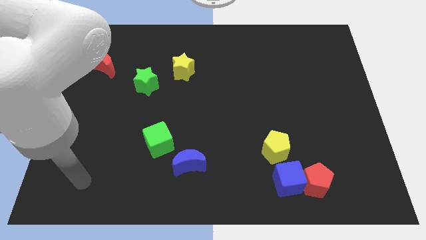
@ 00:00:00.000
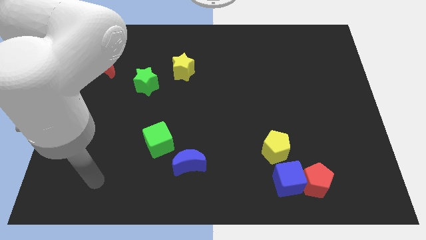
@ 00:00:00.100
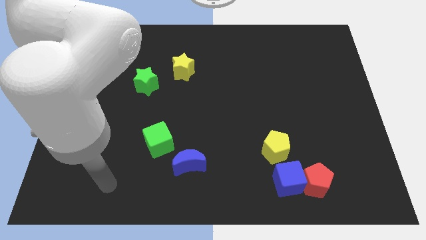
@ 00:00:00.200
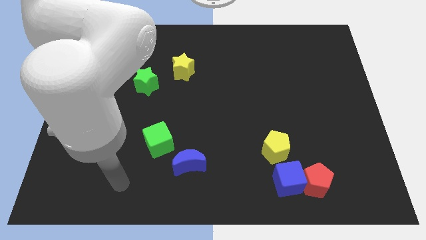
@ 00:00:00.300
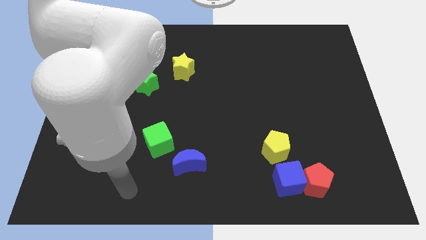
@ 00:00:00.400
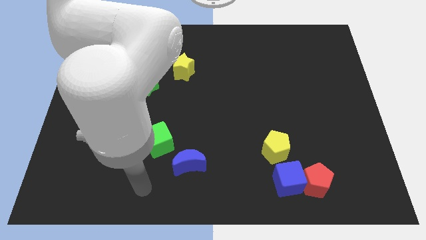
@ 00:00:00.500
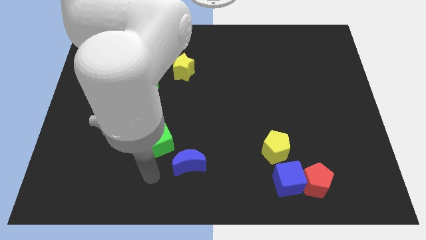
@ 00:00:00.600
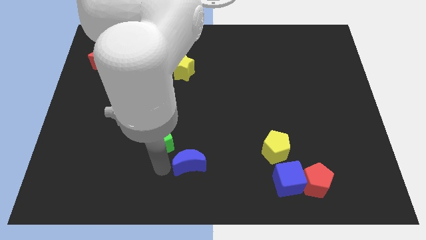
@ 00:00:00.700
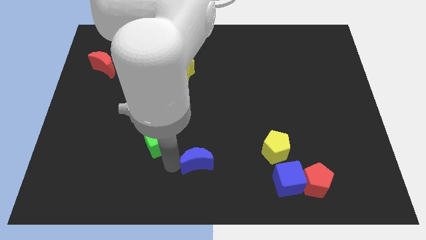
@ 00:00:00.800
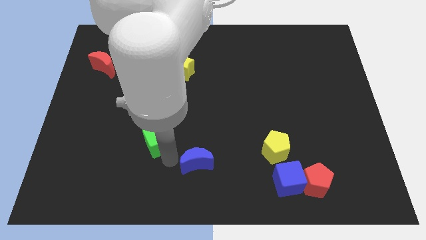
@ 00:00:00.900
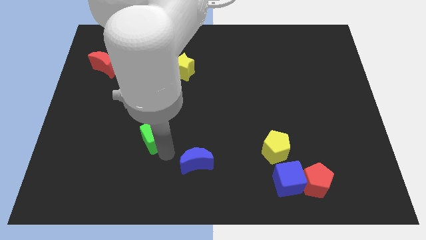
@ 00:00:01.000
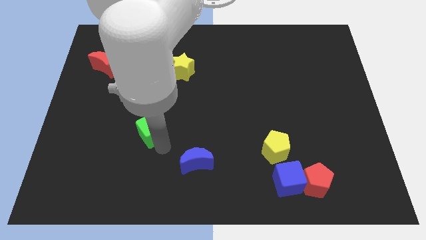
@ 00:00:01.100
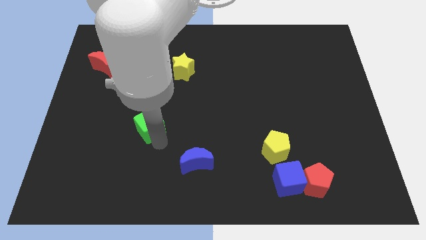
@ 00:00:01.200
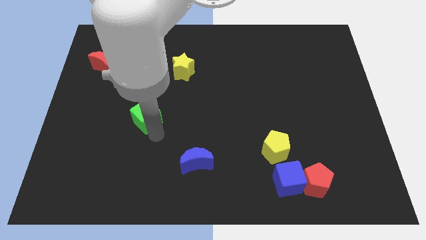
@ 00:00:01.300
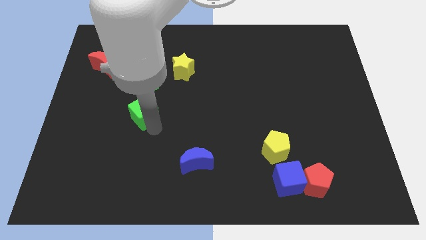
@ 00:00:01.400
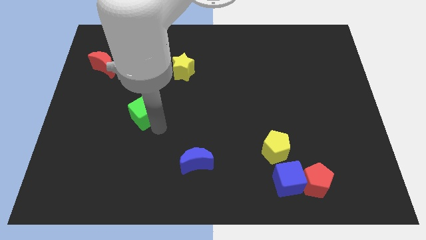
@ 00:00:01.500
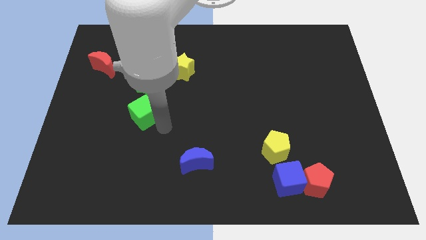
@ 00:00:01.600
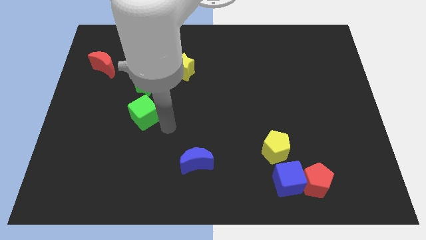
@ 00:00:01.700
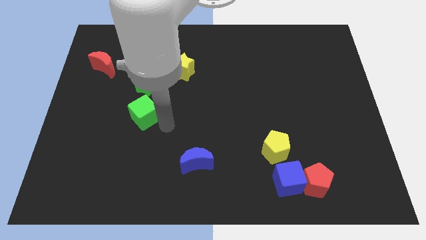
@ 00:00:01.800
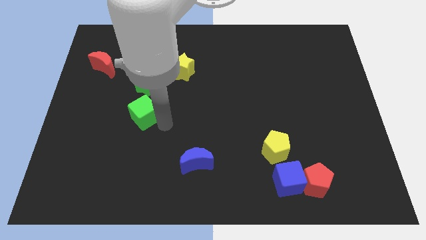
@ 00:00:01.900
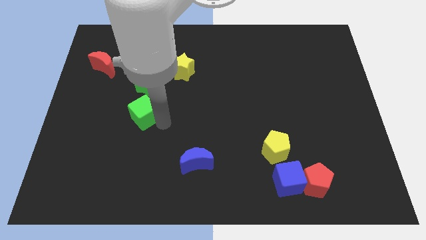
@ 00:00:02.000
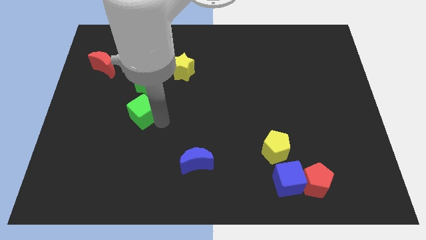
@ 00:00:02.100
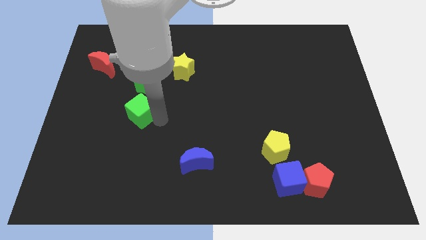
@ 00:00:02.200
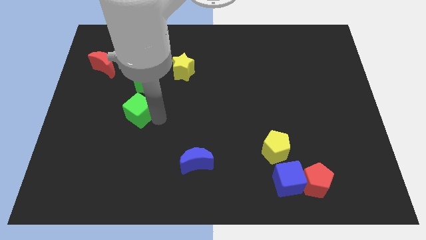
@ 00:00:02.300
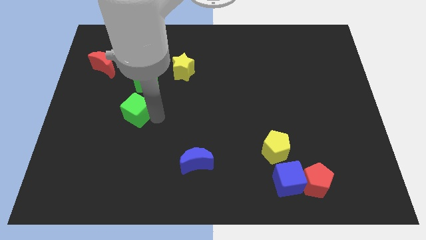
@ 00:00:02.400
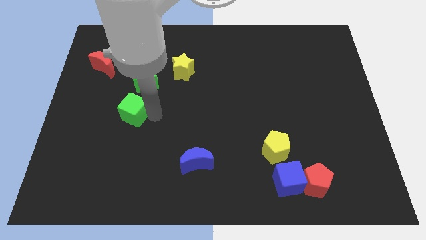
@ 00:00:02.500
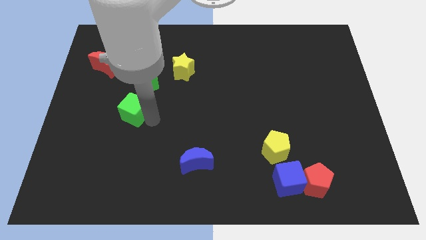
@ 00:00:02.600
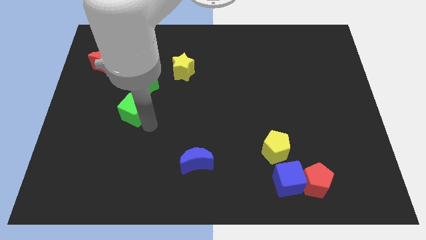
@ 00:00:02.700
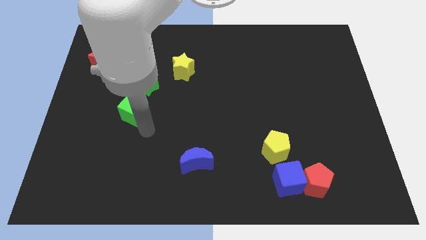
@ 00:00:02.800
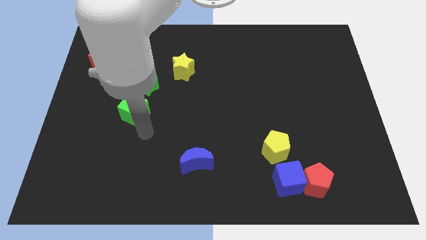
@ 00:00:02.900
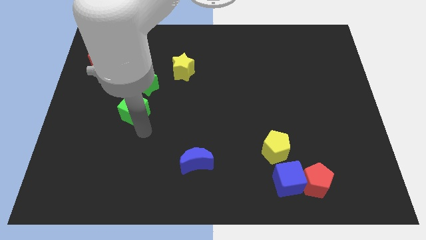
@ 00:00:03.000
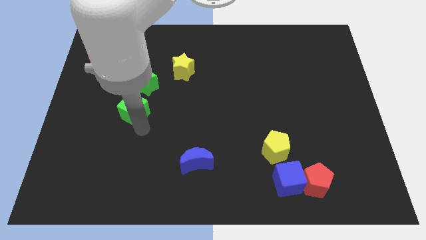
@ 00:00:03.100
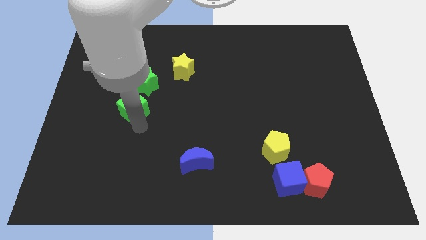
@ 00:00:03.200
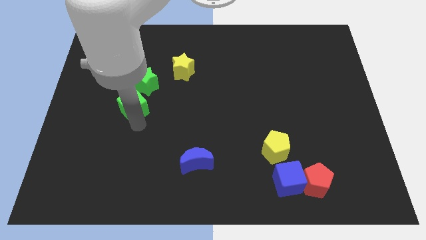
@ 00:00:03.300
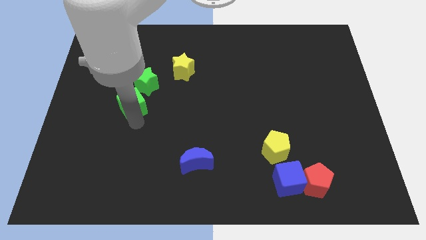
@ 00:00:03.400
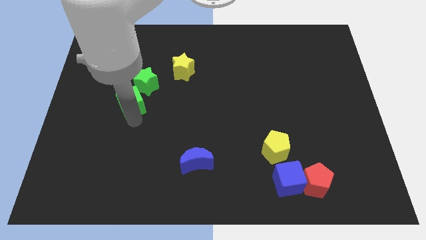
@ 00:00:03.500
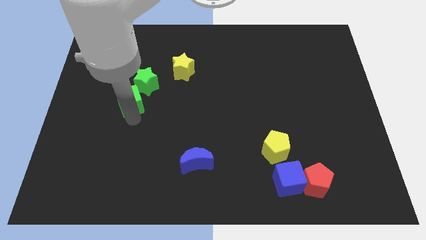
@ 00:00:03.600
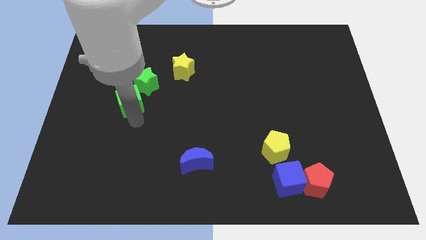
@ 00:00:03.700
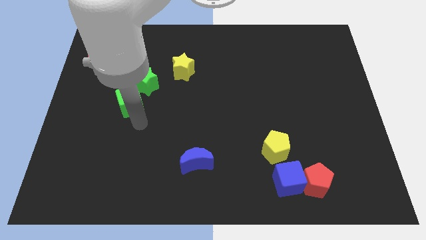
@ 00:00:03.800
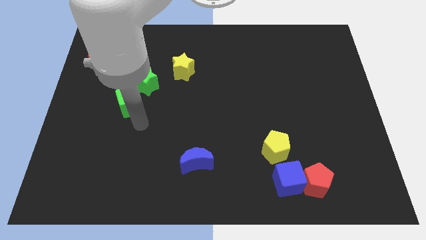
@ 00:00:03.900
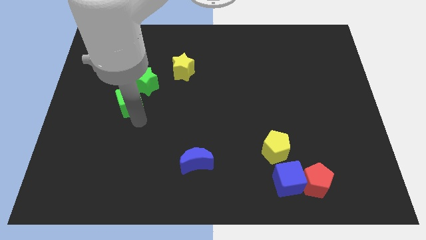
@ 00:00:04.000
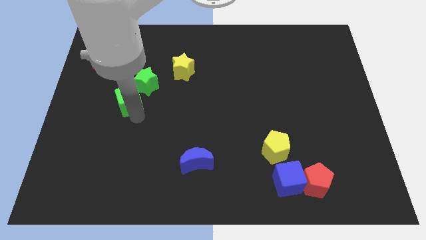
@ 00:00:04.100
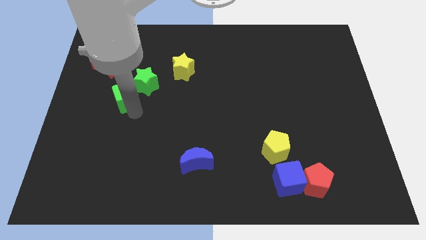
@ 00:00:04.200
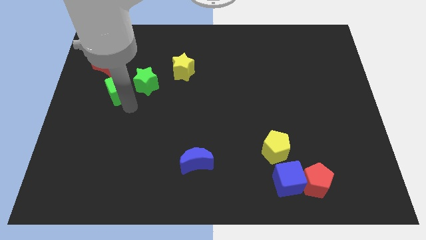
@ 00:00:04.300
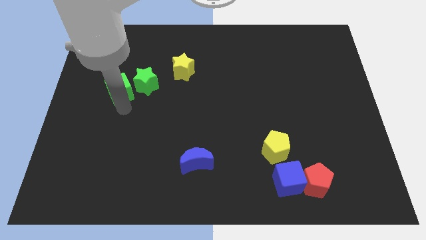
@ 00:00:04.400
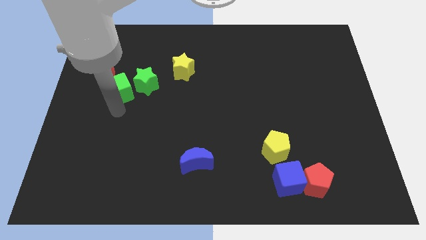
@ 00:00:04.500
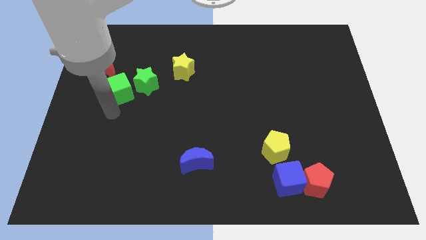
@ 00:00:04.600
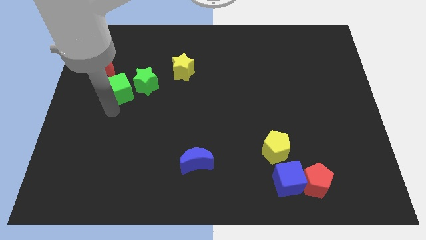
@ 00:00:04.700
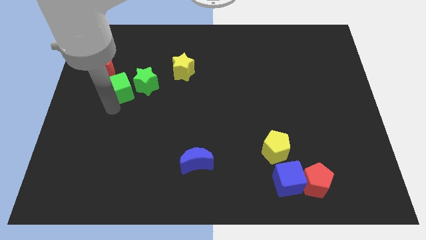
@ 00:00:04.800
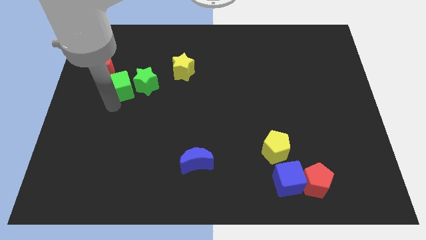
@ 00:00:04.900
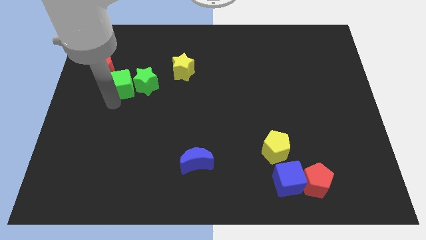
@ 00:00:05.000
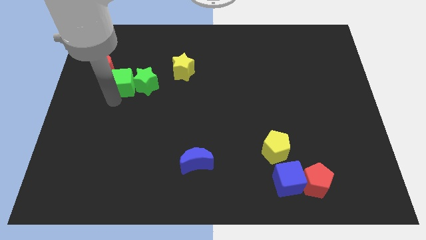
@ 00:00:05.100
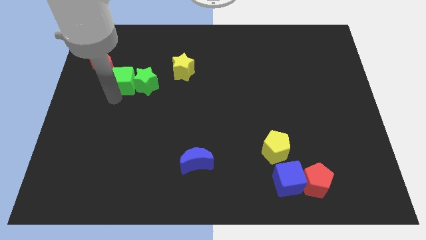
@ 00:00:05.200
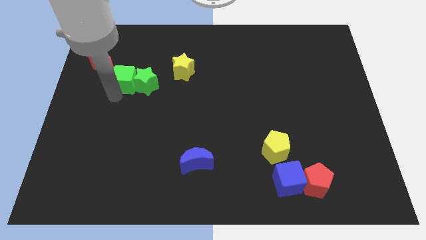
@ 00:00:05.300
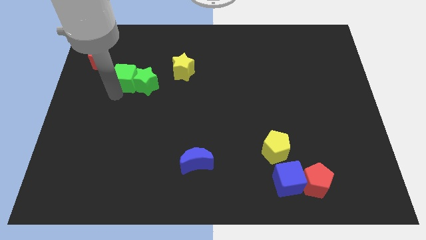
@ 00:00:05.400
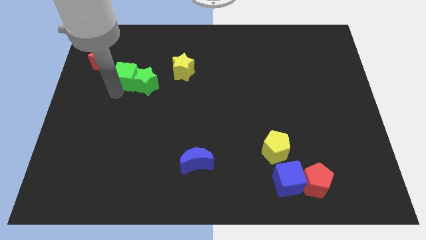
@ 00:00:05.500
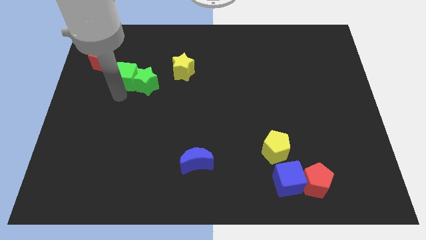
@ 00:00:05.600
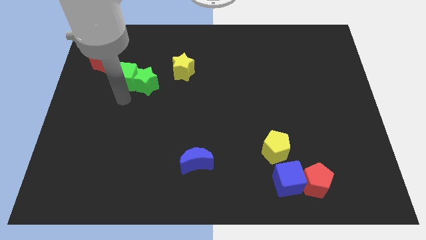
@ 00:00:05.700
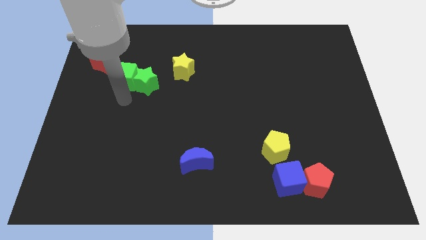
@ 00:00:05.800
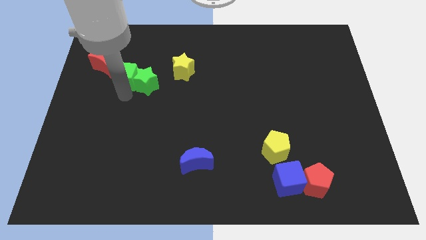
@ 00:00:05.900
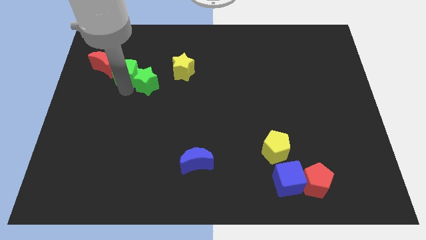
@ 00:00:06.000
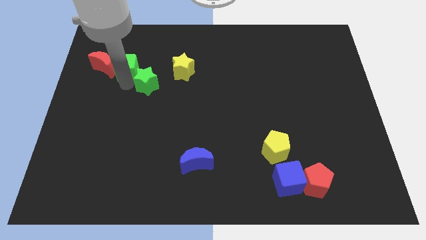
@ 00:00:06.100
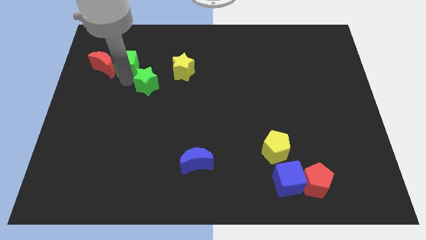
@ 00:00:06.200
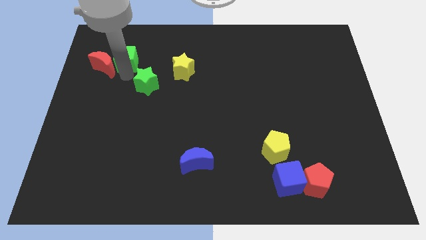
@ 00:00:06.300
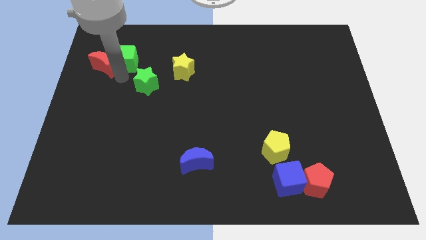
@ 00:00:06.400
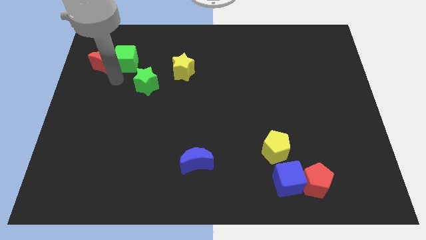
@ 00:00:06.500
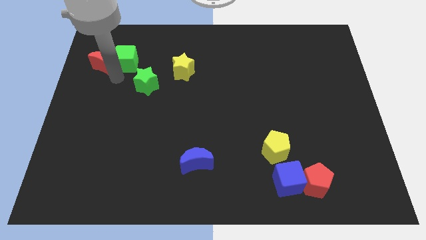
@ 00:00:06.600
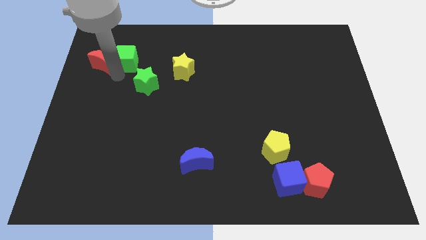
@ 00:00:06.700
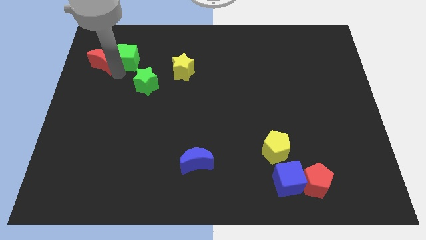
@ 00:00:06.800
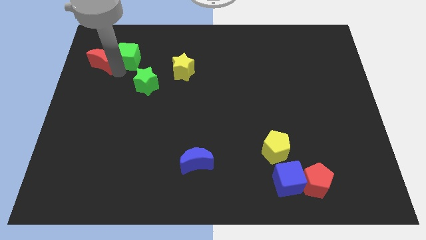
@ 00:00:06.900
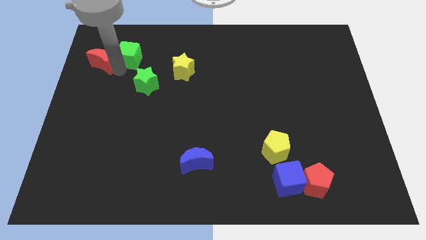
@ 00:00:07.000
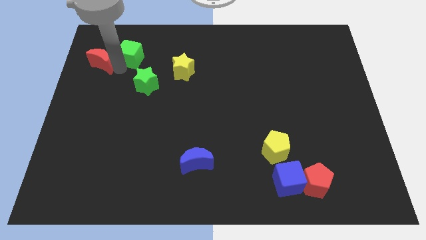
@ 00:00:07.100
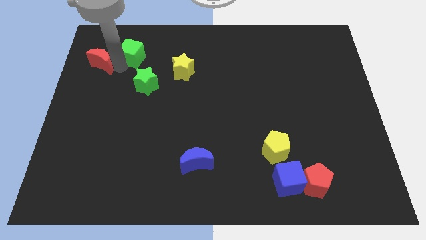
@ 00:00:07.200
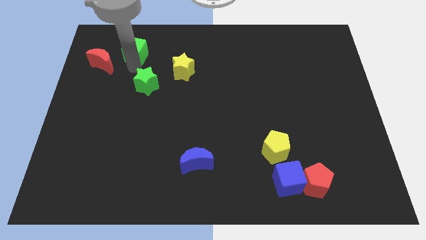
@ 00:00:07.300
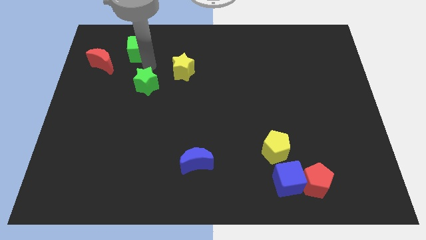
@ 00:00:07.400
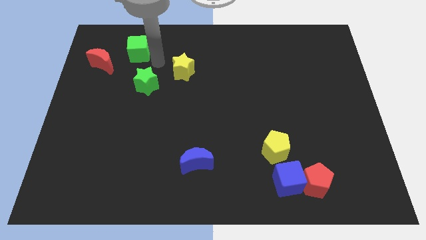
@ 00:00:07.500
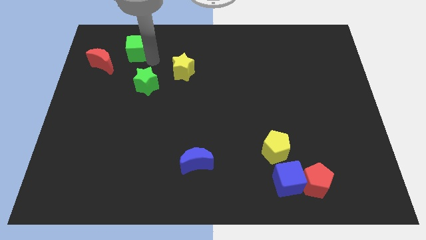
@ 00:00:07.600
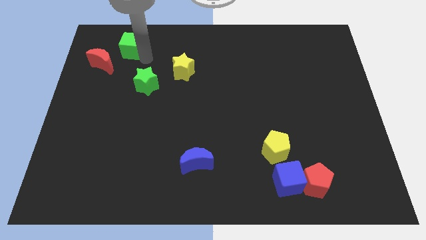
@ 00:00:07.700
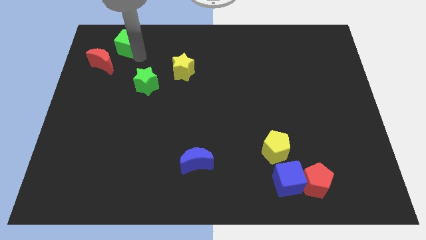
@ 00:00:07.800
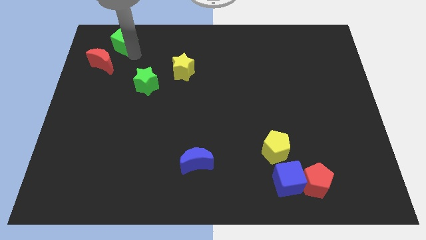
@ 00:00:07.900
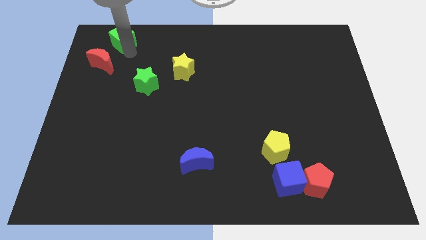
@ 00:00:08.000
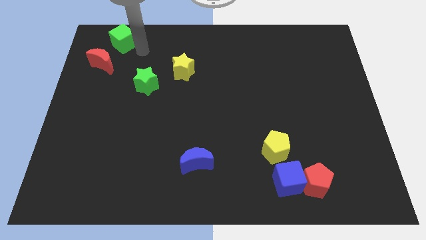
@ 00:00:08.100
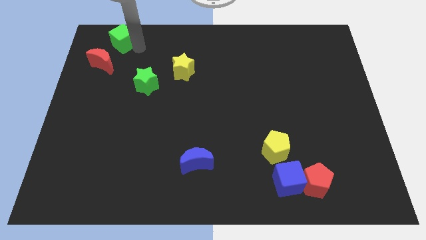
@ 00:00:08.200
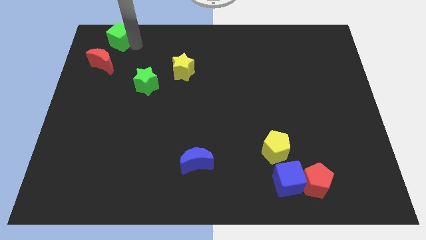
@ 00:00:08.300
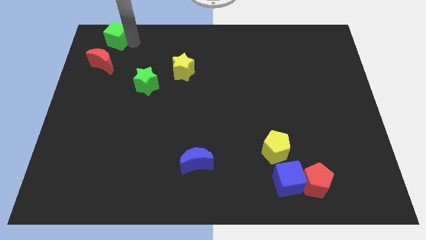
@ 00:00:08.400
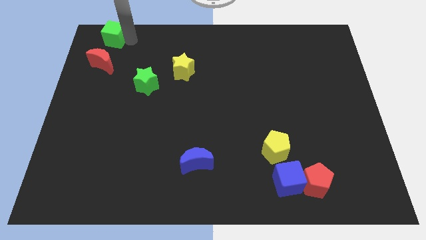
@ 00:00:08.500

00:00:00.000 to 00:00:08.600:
push the green cube to the top left corner
